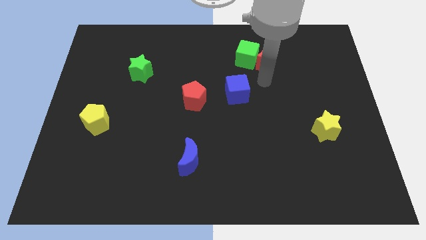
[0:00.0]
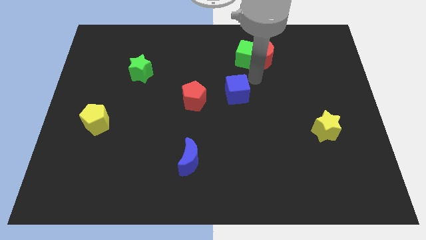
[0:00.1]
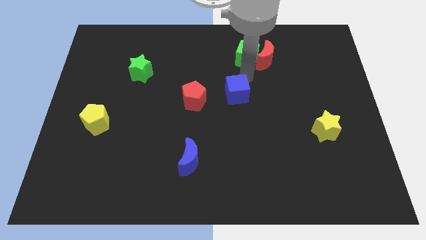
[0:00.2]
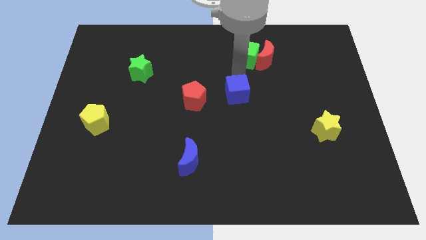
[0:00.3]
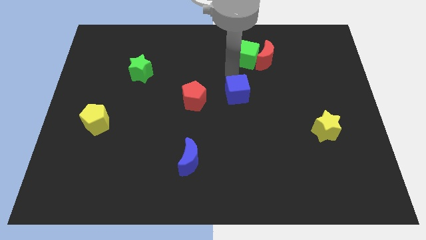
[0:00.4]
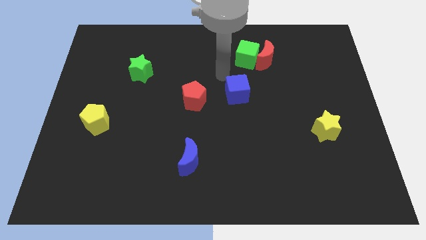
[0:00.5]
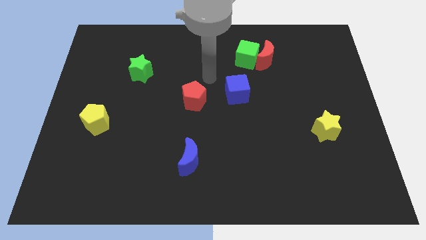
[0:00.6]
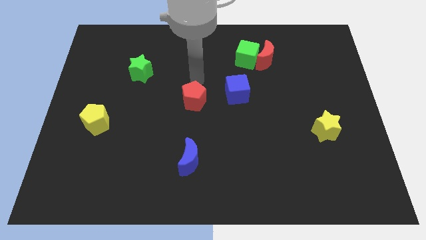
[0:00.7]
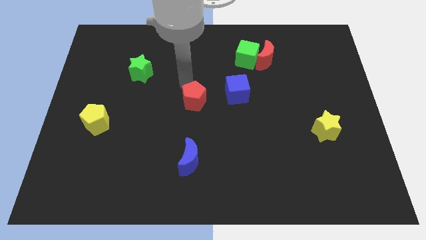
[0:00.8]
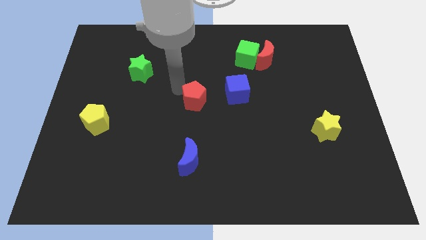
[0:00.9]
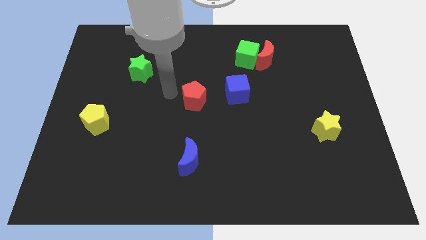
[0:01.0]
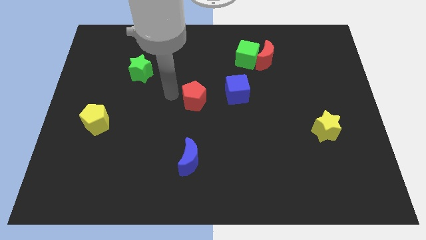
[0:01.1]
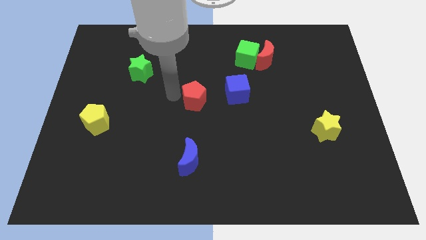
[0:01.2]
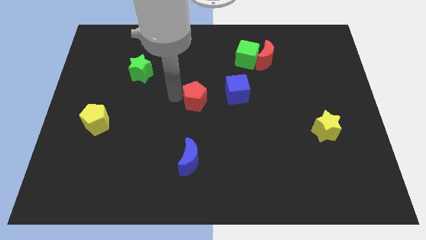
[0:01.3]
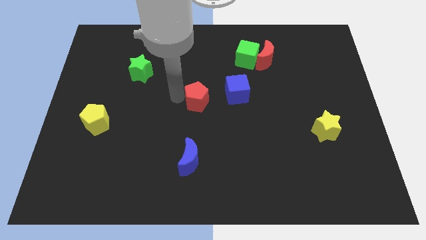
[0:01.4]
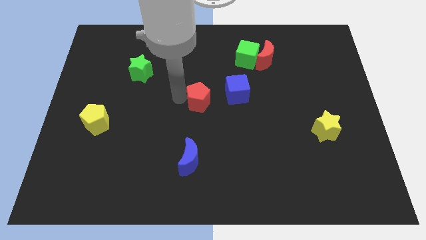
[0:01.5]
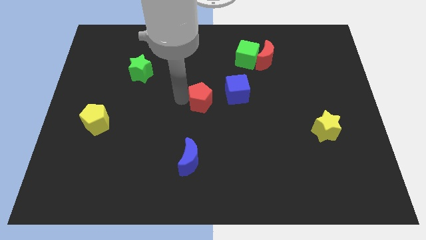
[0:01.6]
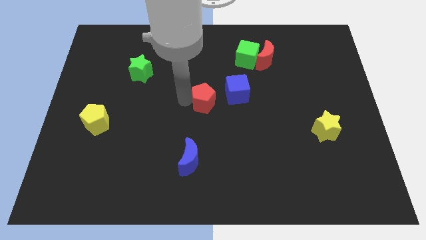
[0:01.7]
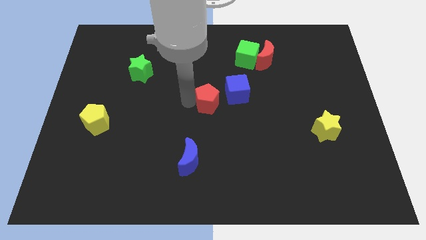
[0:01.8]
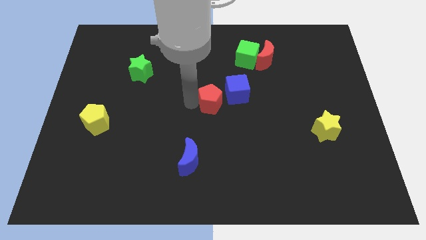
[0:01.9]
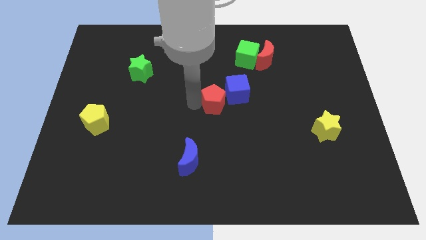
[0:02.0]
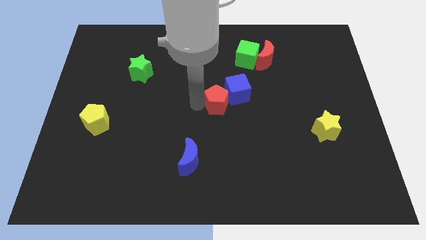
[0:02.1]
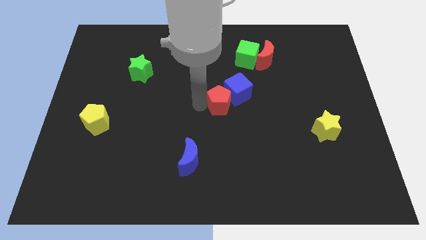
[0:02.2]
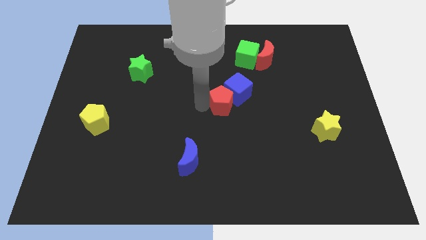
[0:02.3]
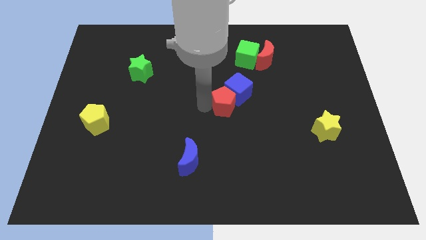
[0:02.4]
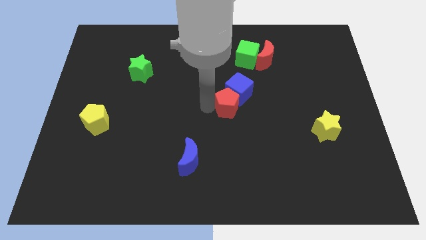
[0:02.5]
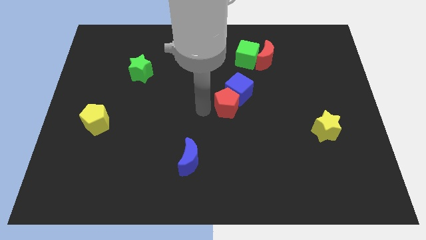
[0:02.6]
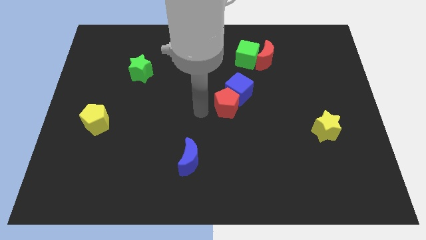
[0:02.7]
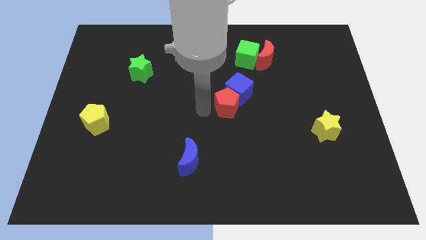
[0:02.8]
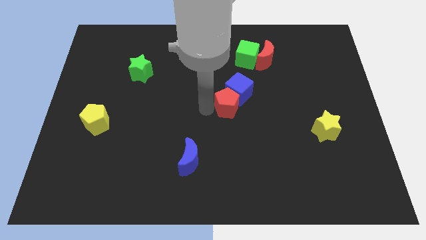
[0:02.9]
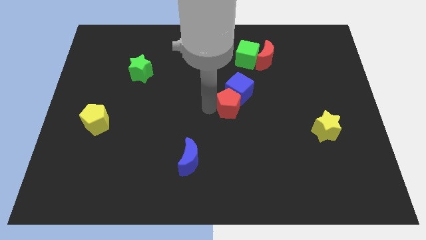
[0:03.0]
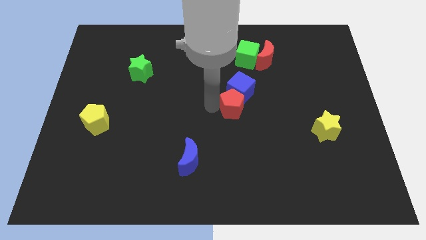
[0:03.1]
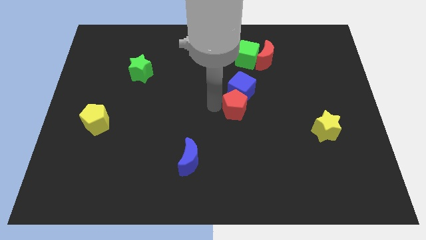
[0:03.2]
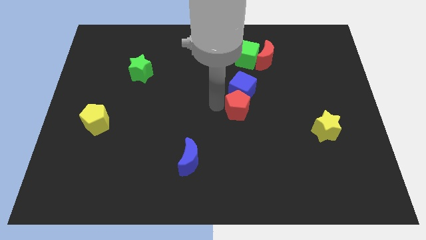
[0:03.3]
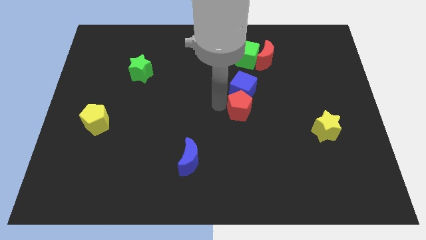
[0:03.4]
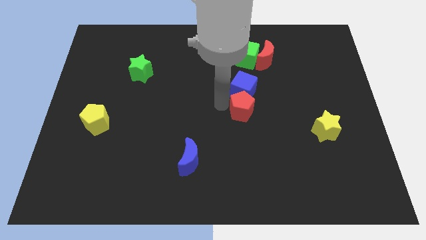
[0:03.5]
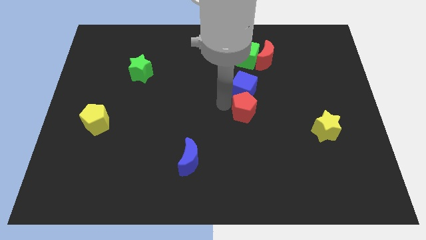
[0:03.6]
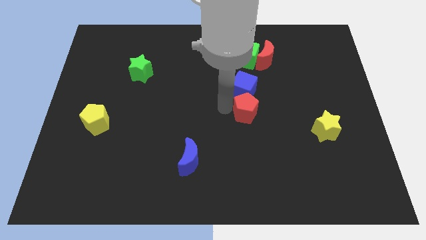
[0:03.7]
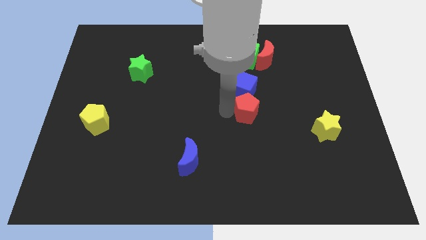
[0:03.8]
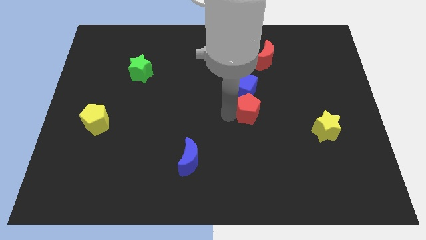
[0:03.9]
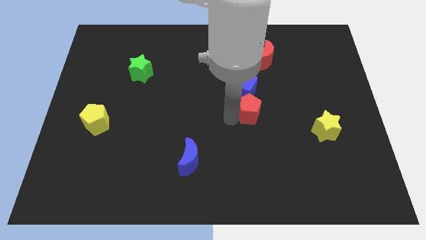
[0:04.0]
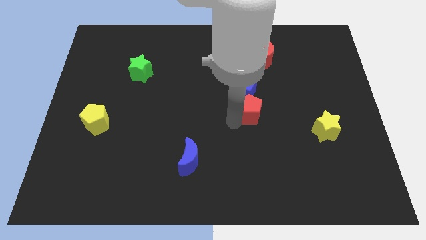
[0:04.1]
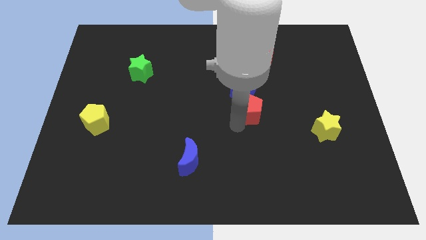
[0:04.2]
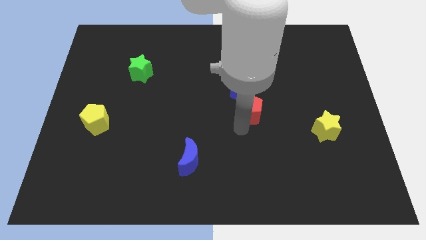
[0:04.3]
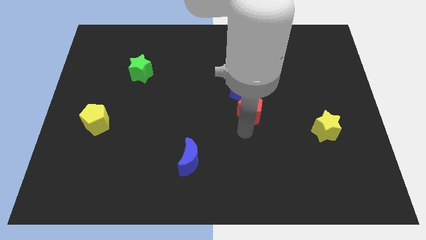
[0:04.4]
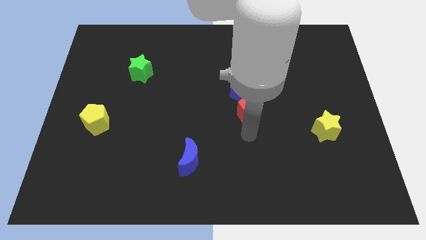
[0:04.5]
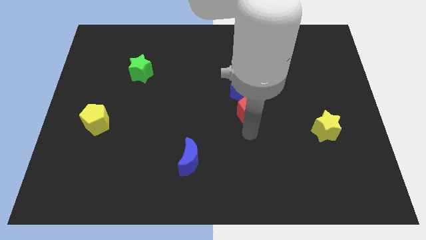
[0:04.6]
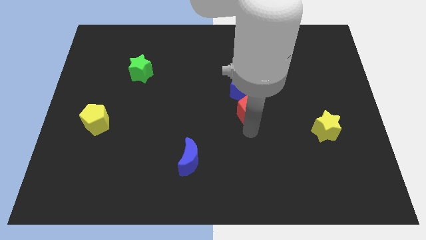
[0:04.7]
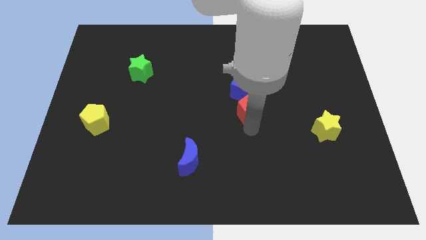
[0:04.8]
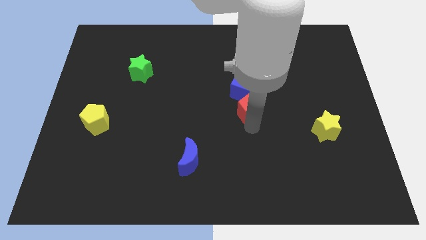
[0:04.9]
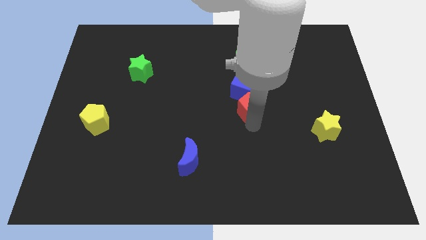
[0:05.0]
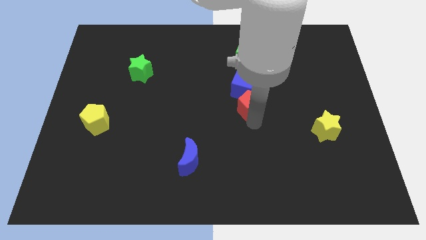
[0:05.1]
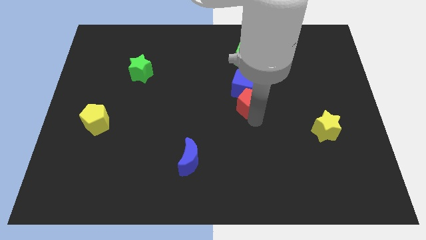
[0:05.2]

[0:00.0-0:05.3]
move the red pentagon to the bottom of the green cube

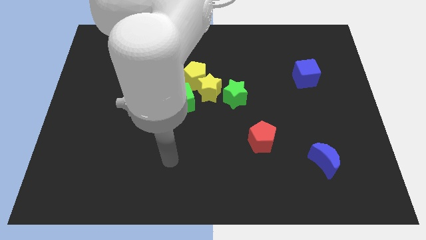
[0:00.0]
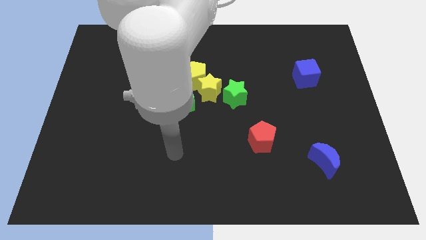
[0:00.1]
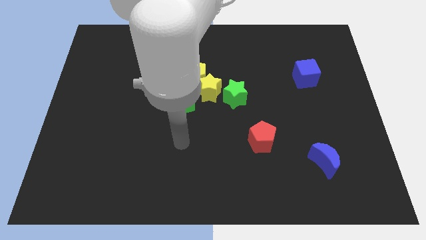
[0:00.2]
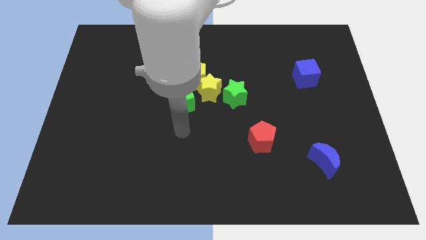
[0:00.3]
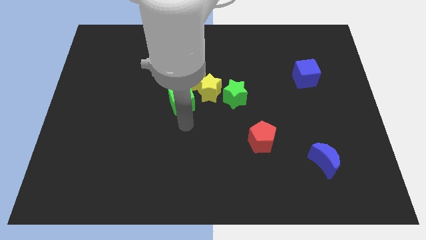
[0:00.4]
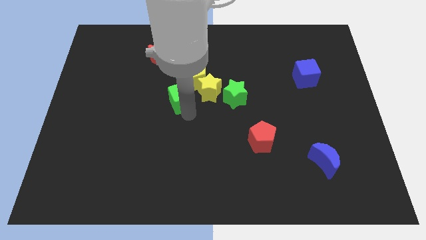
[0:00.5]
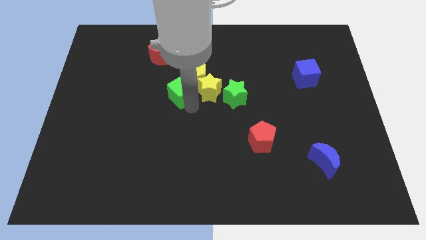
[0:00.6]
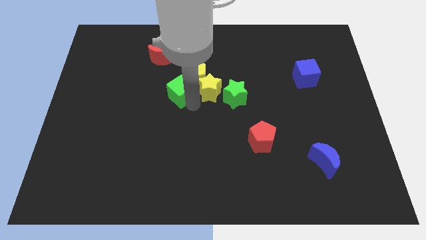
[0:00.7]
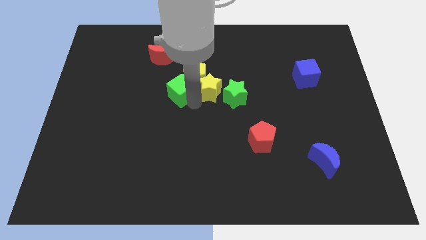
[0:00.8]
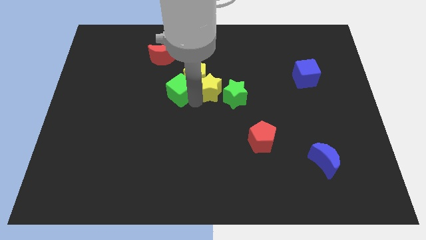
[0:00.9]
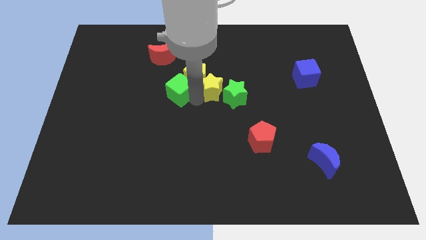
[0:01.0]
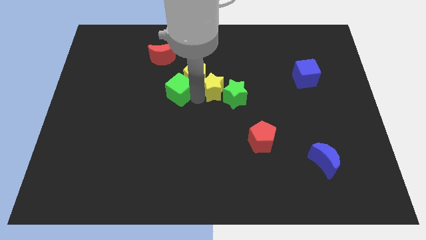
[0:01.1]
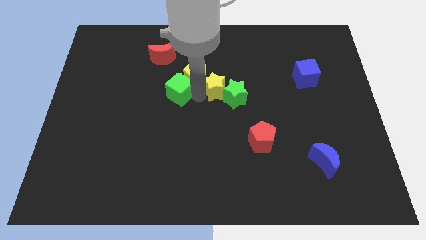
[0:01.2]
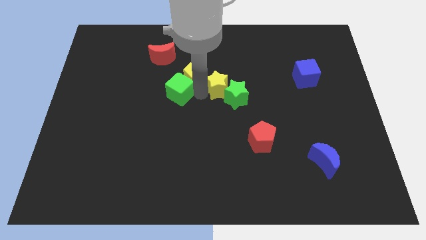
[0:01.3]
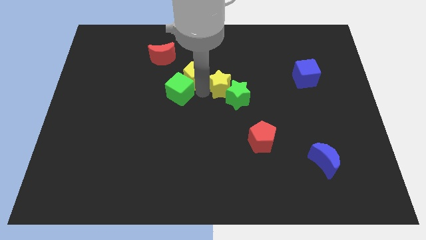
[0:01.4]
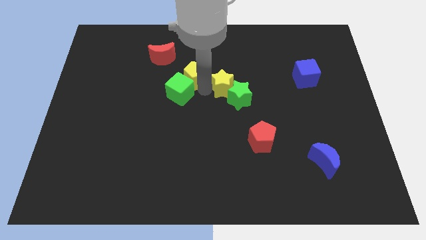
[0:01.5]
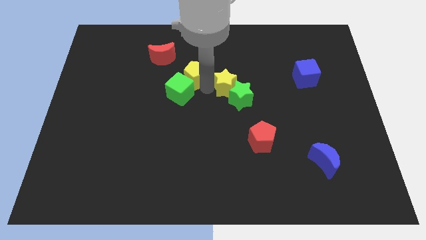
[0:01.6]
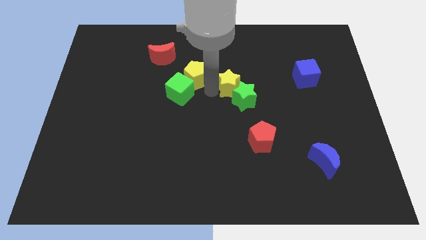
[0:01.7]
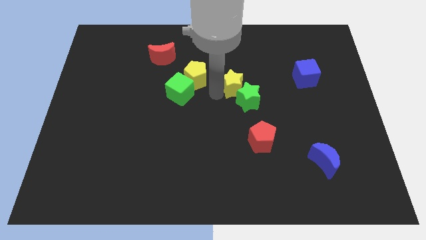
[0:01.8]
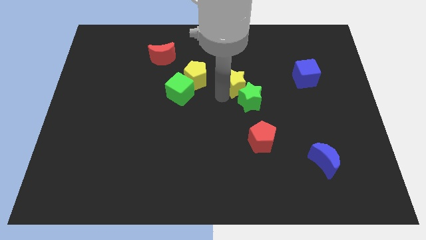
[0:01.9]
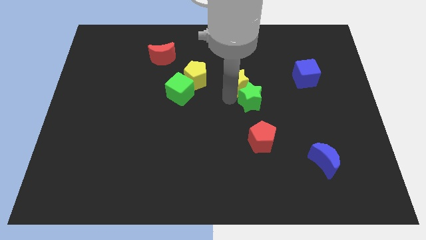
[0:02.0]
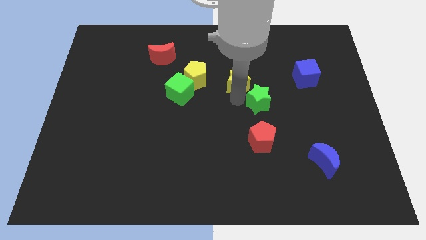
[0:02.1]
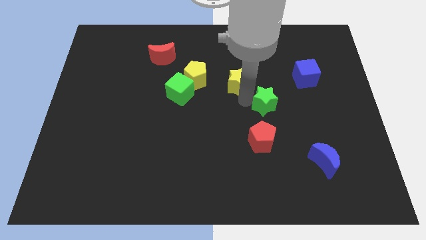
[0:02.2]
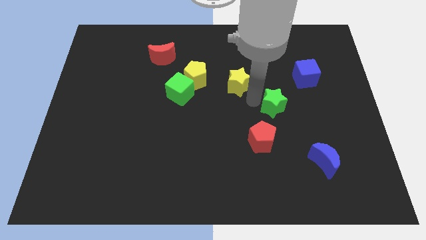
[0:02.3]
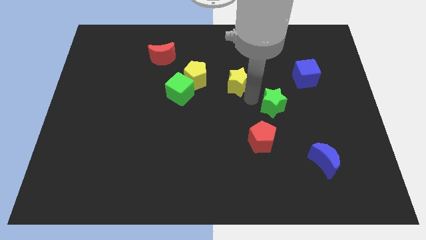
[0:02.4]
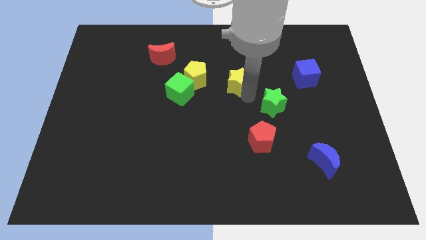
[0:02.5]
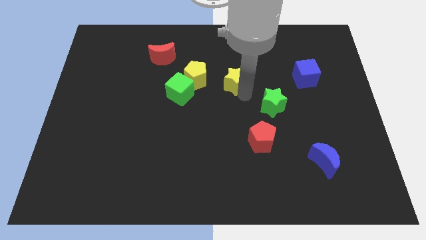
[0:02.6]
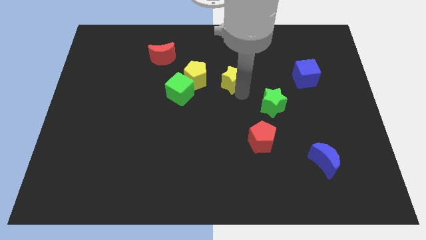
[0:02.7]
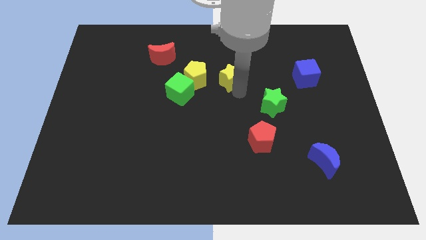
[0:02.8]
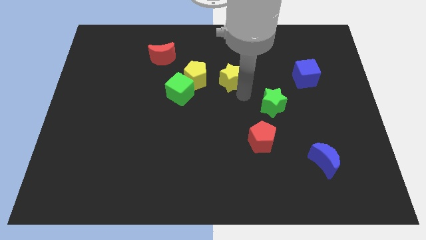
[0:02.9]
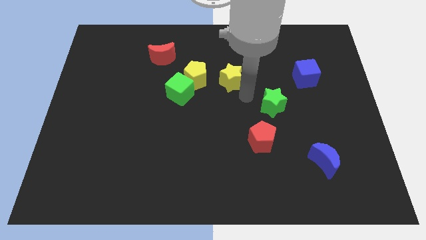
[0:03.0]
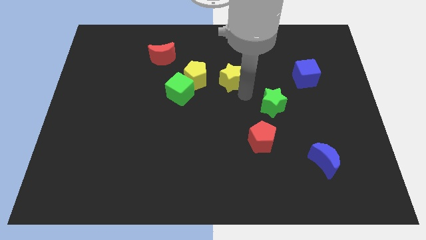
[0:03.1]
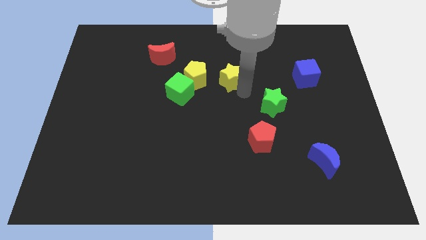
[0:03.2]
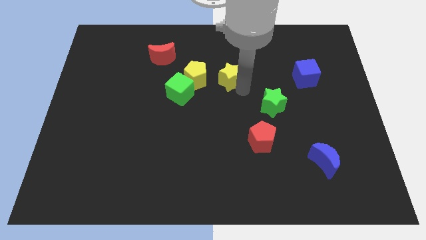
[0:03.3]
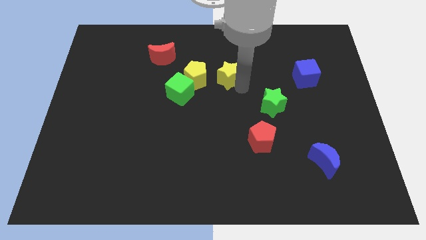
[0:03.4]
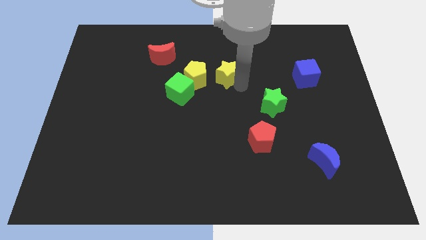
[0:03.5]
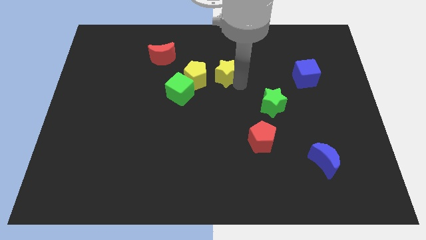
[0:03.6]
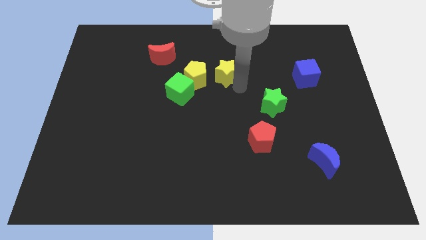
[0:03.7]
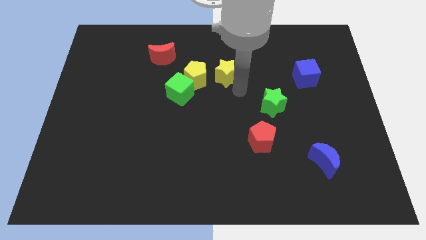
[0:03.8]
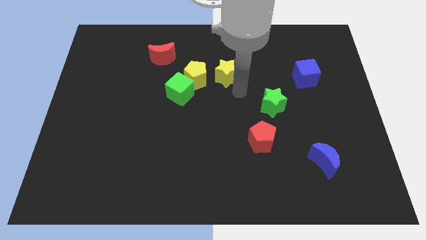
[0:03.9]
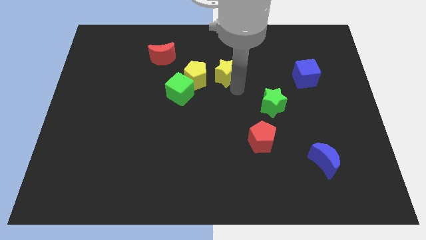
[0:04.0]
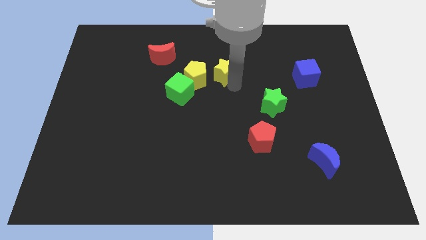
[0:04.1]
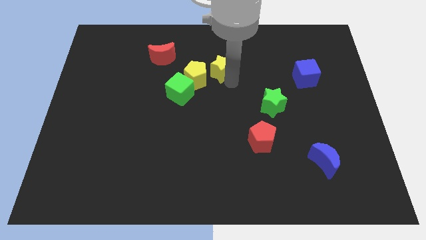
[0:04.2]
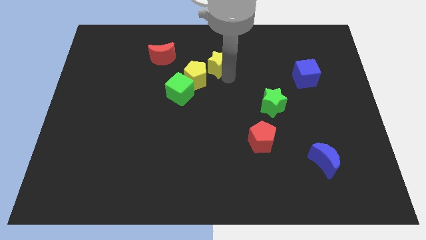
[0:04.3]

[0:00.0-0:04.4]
slide the yellow star right of the red moon
